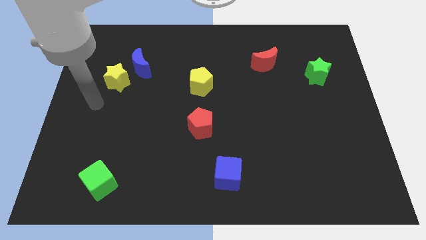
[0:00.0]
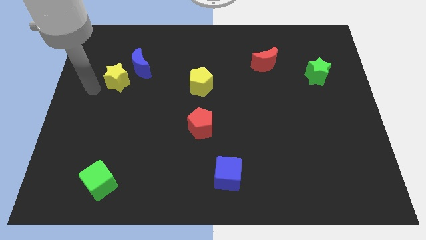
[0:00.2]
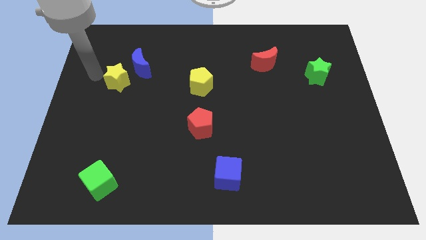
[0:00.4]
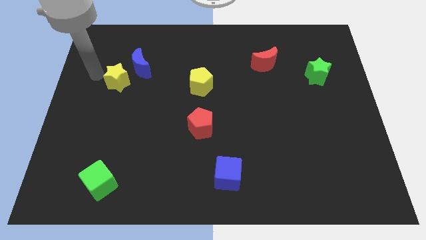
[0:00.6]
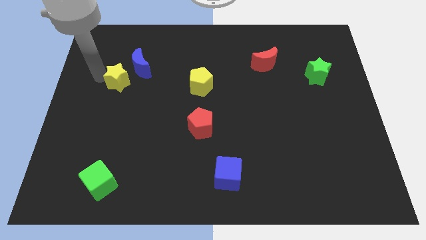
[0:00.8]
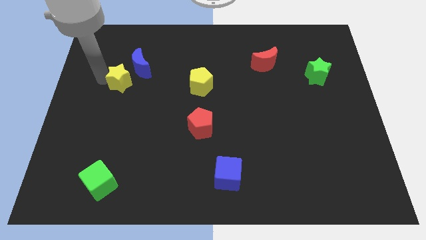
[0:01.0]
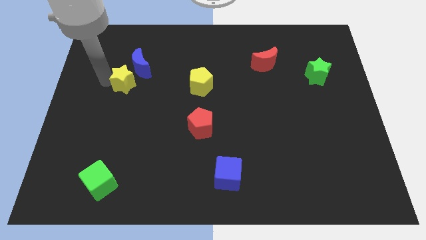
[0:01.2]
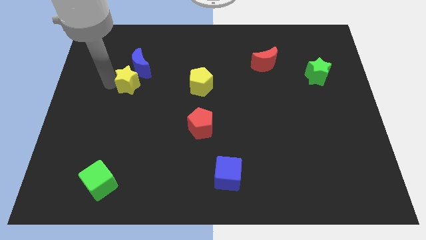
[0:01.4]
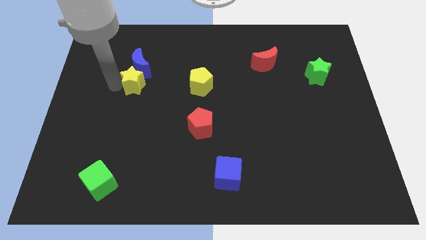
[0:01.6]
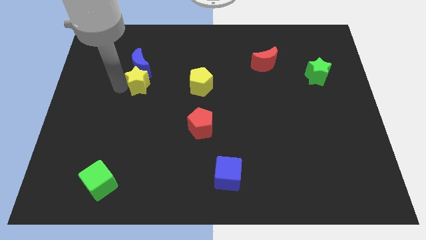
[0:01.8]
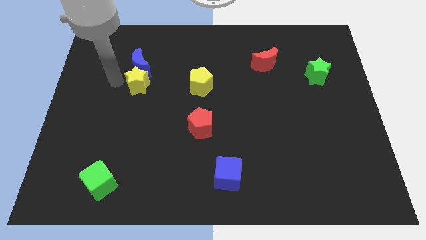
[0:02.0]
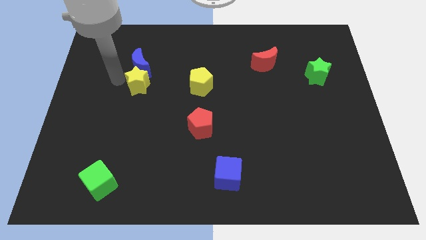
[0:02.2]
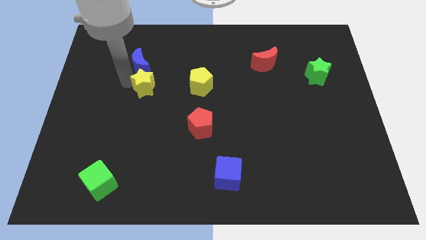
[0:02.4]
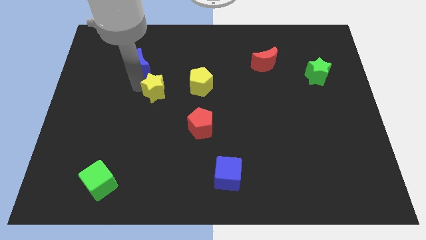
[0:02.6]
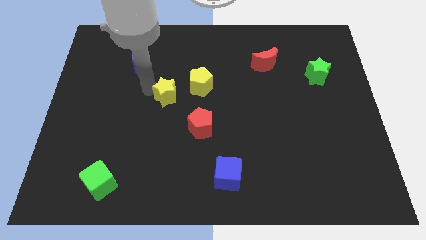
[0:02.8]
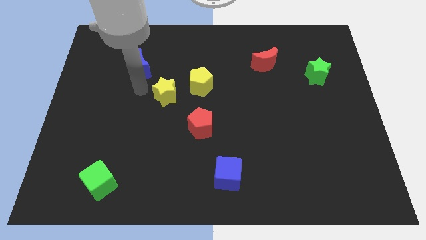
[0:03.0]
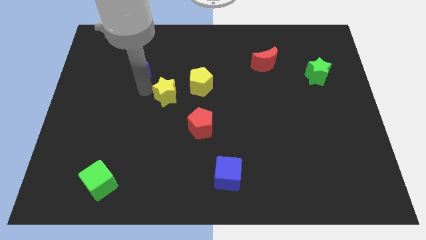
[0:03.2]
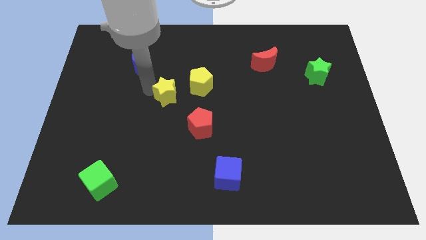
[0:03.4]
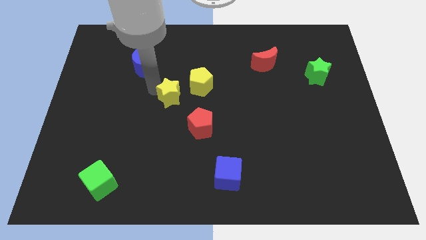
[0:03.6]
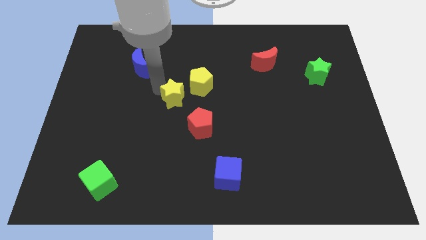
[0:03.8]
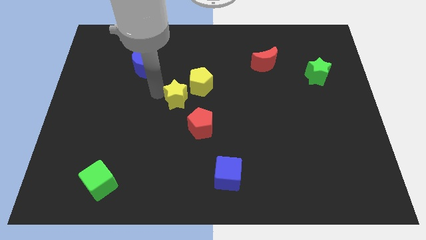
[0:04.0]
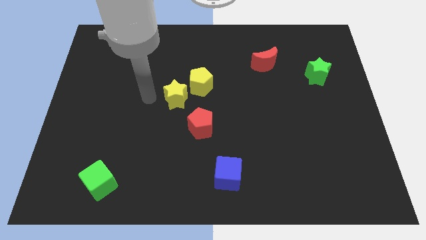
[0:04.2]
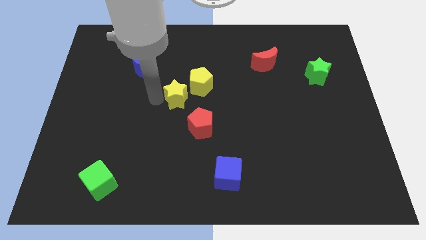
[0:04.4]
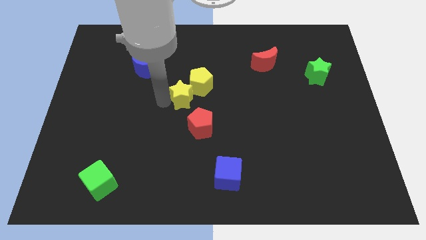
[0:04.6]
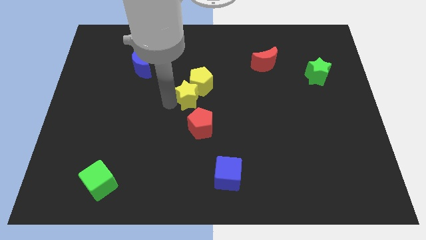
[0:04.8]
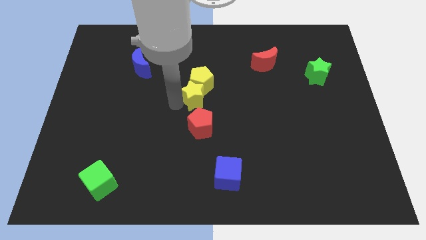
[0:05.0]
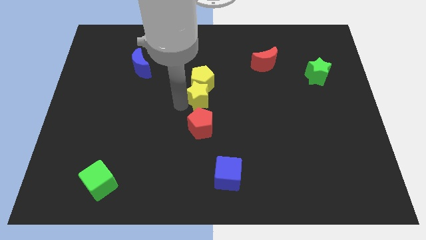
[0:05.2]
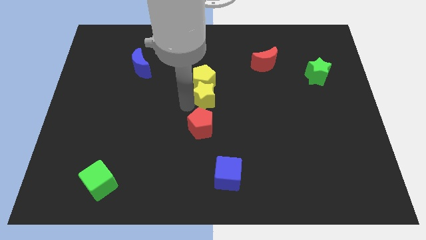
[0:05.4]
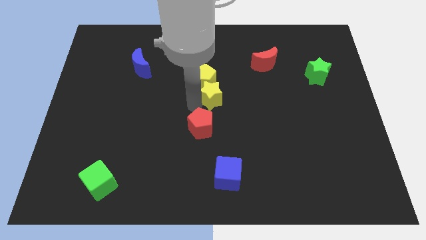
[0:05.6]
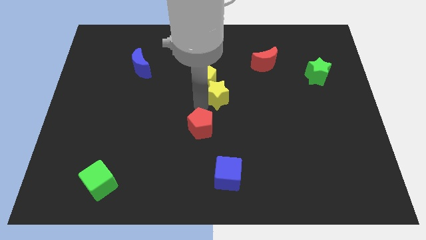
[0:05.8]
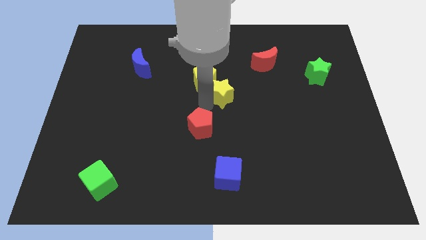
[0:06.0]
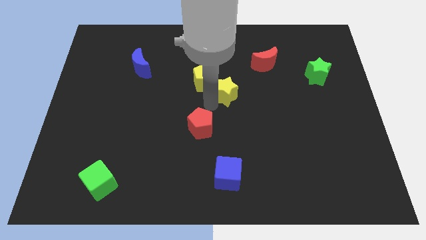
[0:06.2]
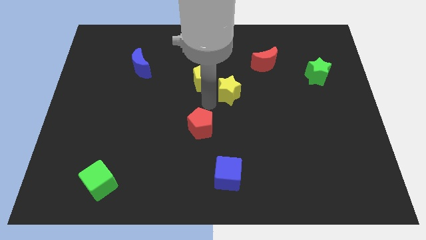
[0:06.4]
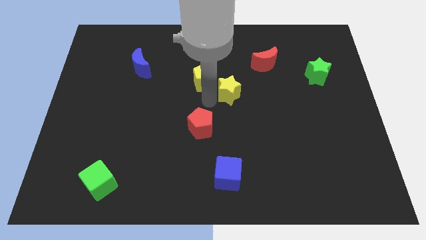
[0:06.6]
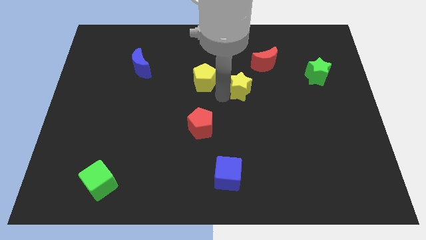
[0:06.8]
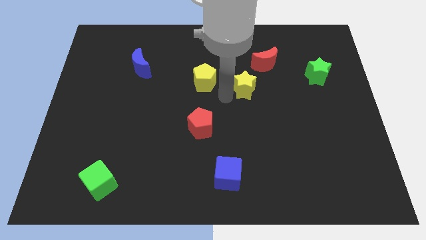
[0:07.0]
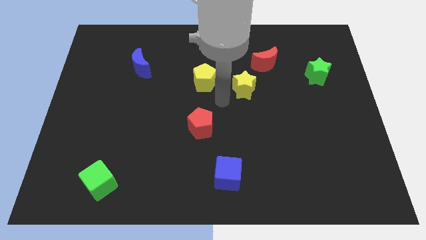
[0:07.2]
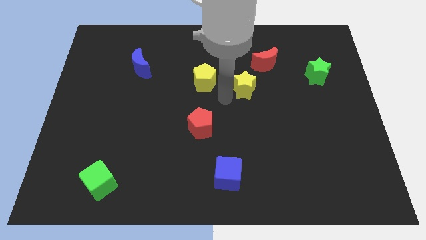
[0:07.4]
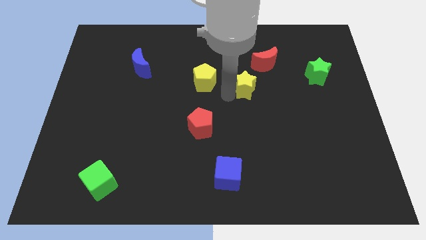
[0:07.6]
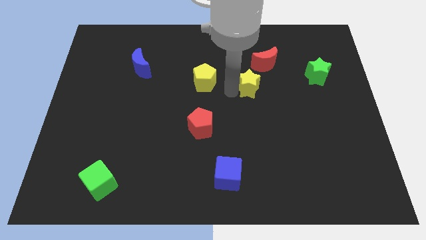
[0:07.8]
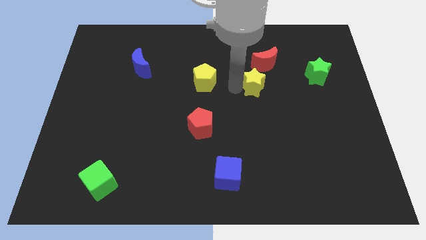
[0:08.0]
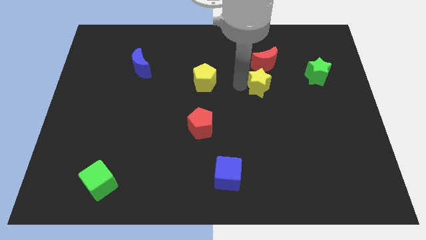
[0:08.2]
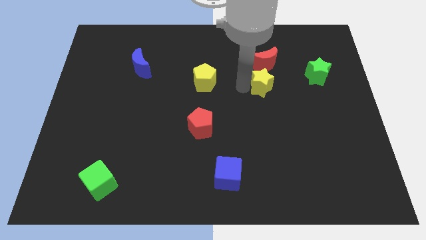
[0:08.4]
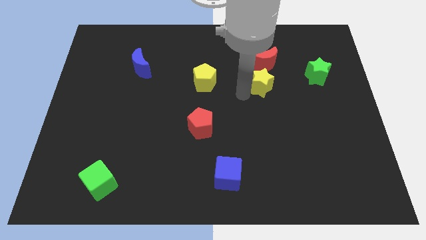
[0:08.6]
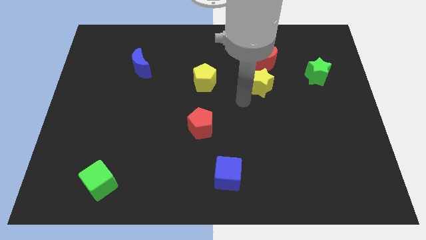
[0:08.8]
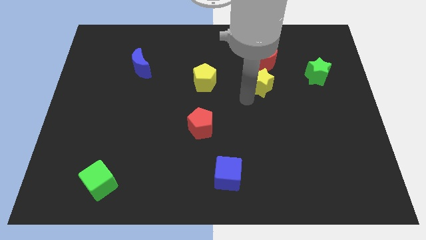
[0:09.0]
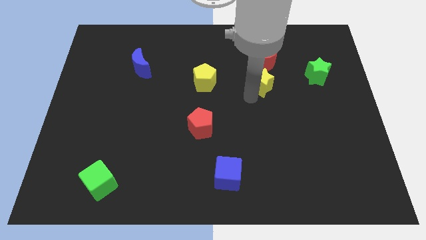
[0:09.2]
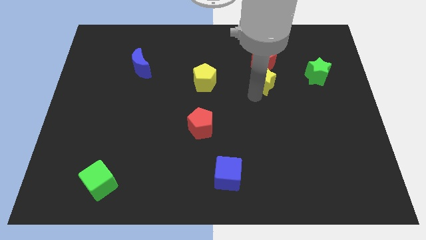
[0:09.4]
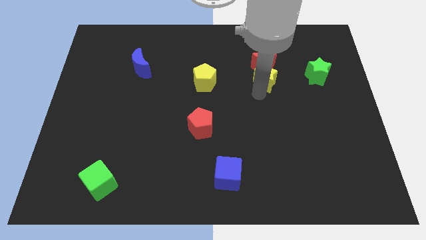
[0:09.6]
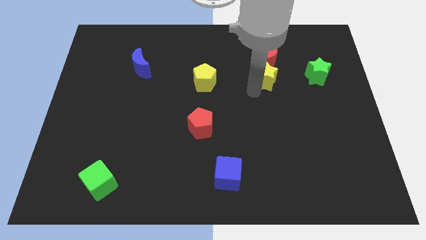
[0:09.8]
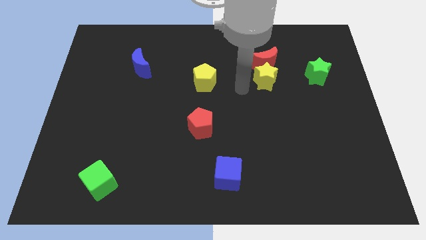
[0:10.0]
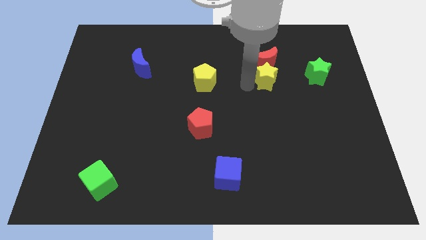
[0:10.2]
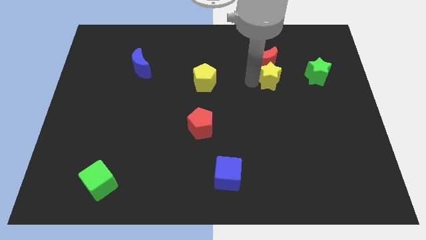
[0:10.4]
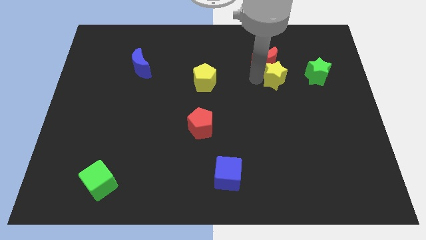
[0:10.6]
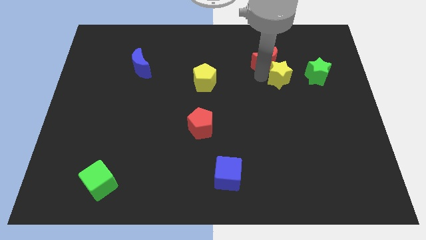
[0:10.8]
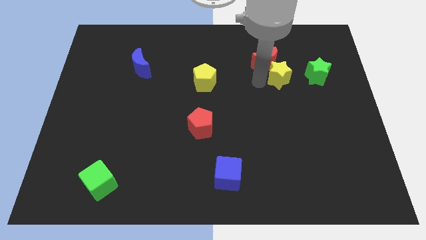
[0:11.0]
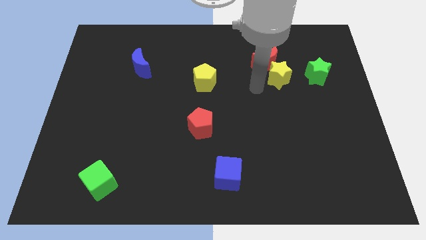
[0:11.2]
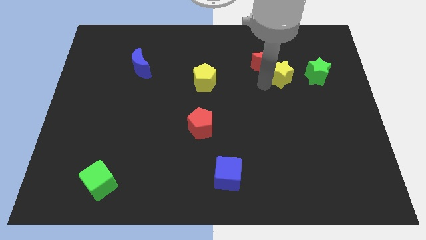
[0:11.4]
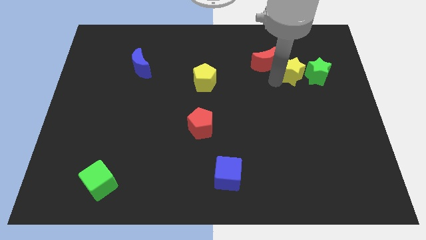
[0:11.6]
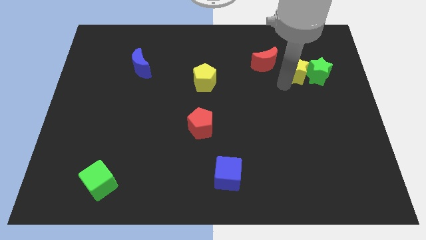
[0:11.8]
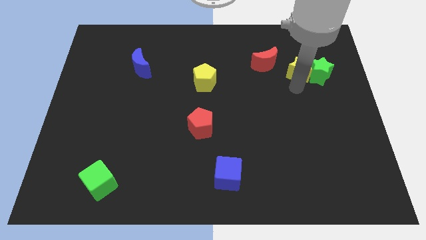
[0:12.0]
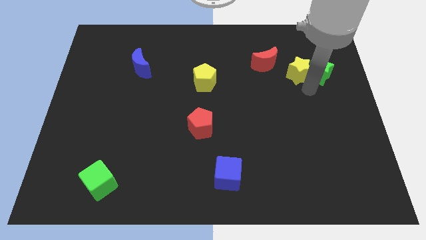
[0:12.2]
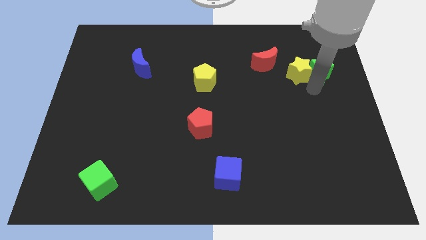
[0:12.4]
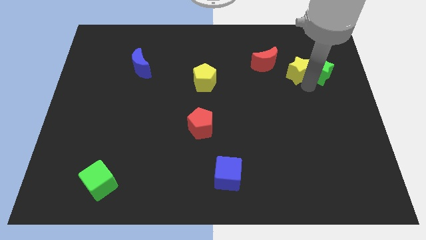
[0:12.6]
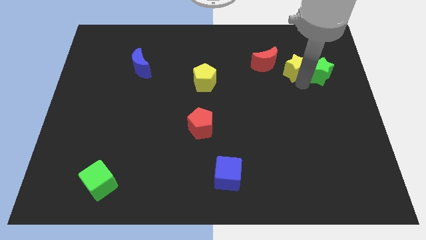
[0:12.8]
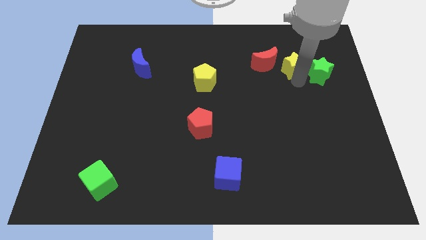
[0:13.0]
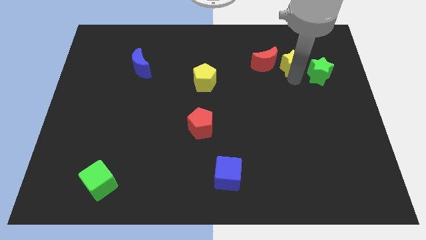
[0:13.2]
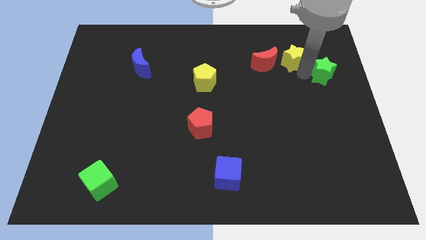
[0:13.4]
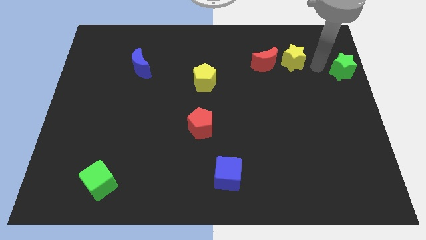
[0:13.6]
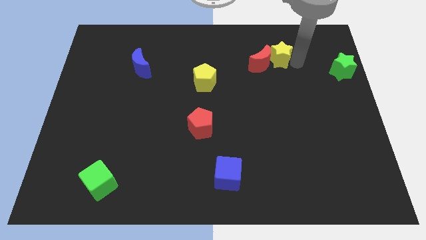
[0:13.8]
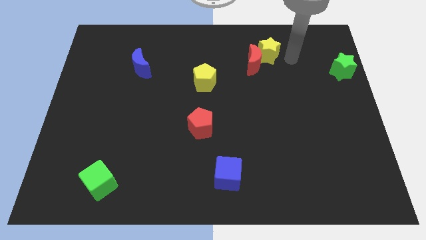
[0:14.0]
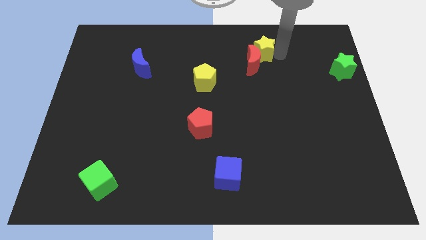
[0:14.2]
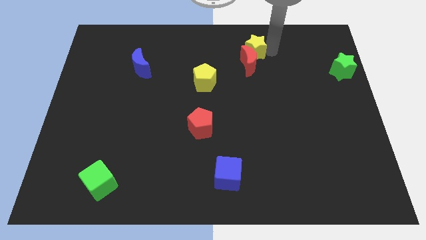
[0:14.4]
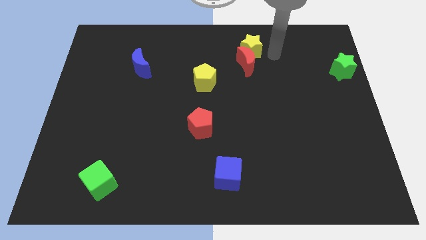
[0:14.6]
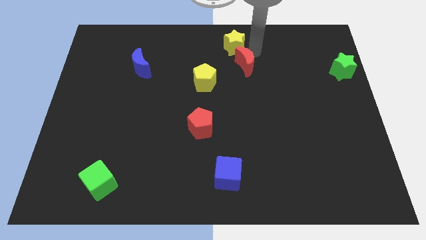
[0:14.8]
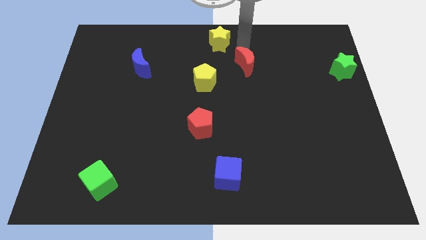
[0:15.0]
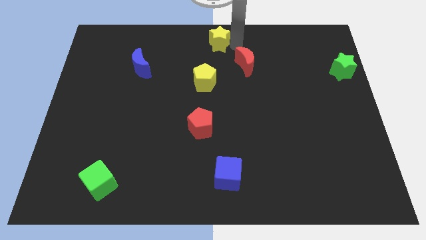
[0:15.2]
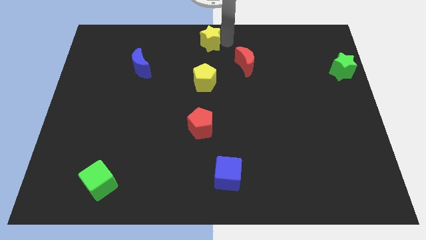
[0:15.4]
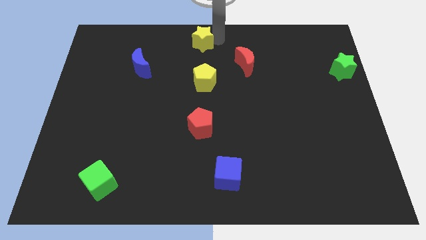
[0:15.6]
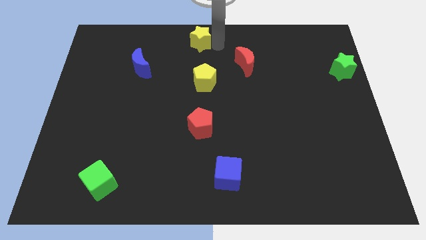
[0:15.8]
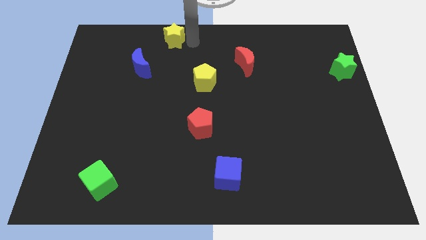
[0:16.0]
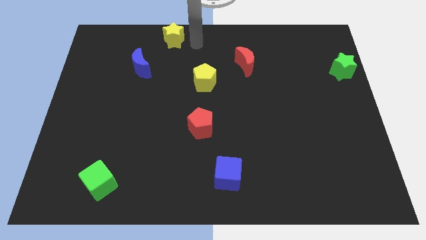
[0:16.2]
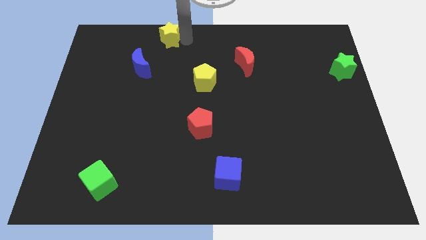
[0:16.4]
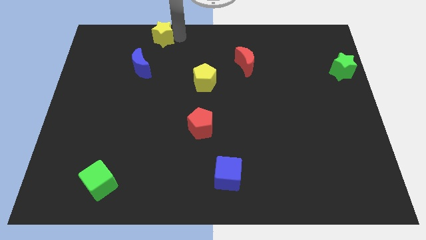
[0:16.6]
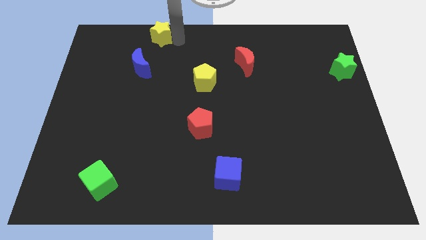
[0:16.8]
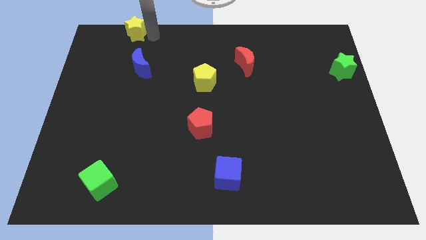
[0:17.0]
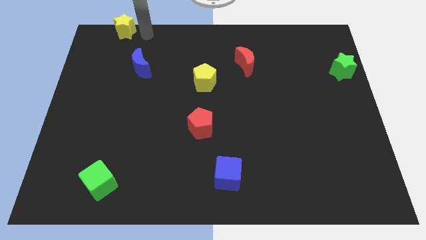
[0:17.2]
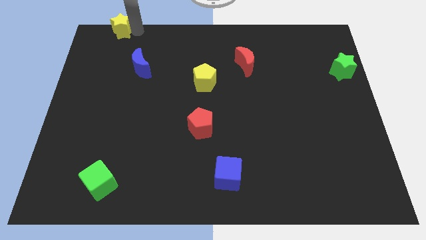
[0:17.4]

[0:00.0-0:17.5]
put the yellow star to the top left
